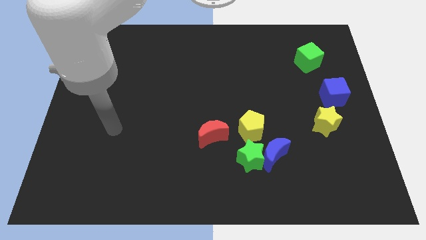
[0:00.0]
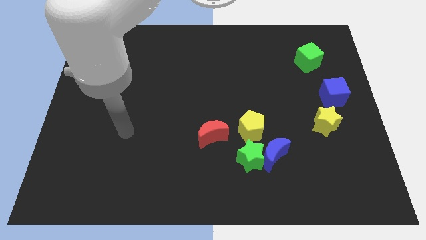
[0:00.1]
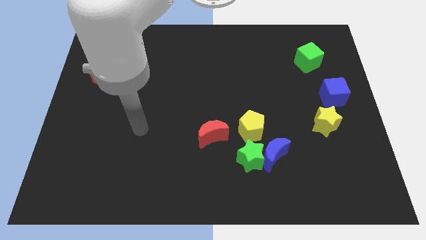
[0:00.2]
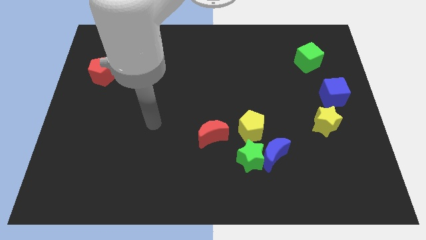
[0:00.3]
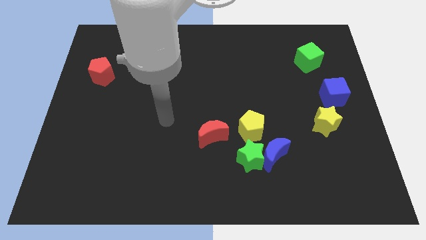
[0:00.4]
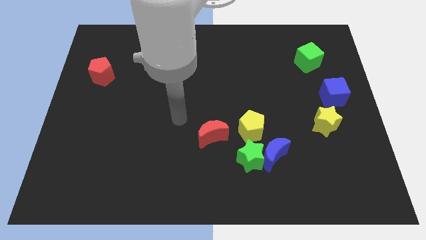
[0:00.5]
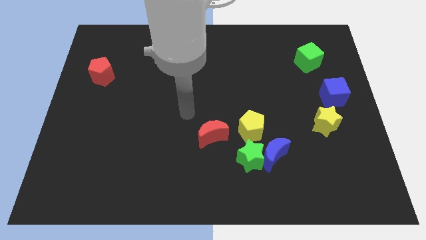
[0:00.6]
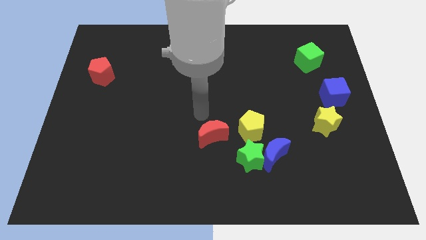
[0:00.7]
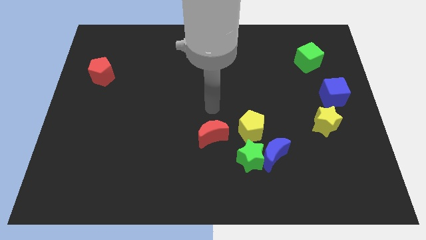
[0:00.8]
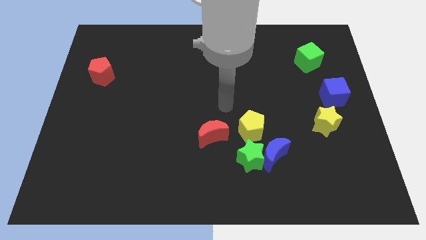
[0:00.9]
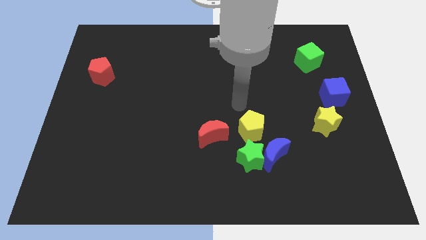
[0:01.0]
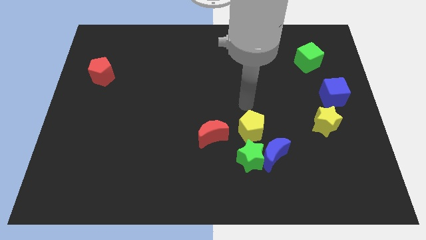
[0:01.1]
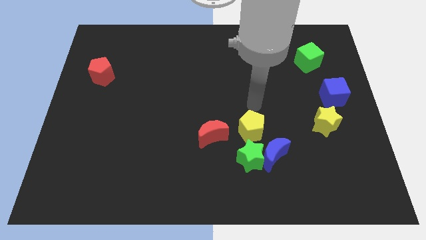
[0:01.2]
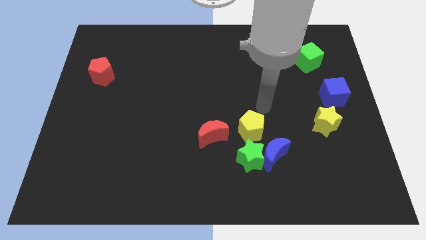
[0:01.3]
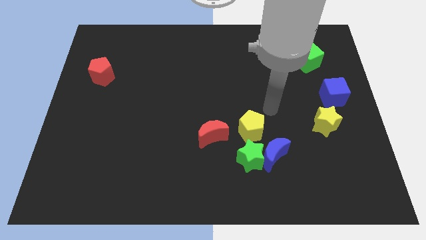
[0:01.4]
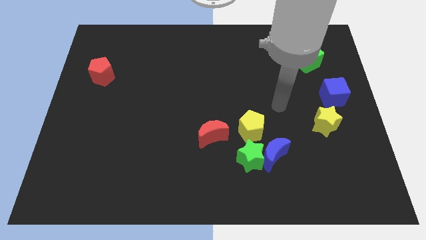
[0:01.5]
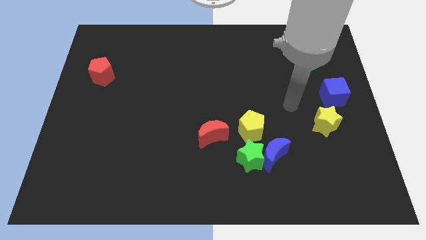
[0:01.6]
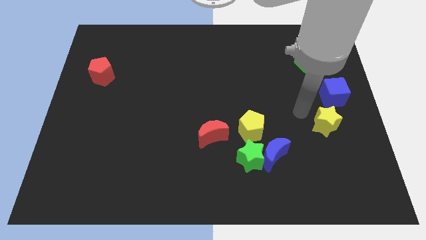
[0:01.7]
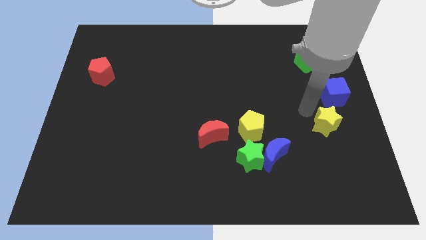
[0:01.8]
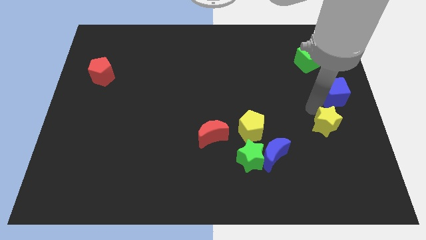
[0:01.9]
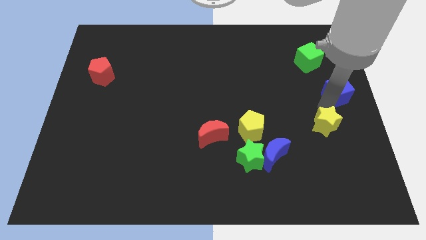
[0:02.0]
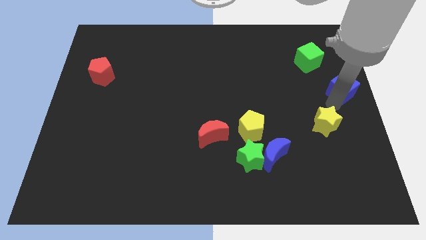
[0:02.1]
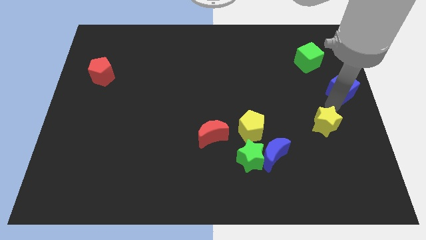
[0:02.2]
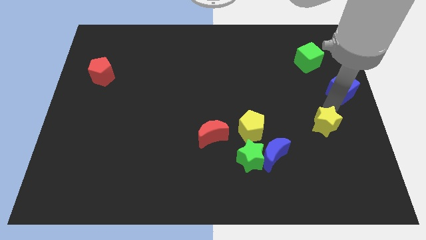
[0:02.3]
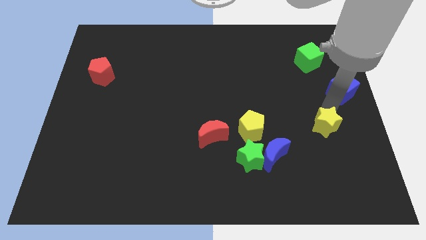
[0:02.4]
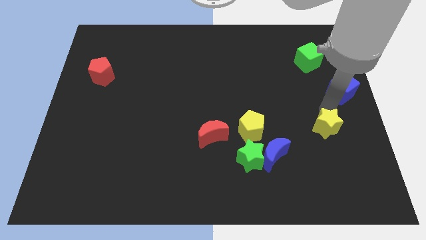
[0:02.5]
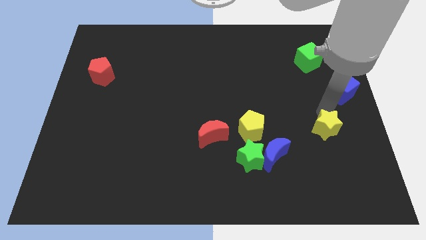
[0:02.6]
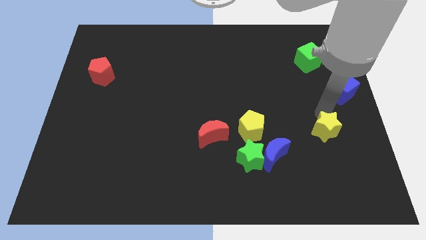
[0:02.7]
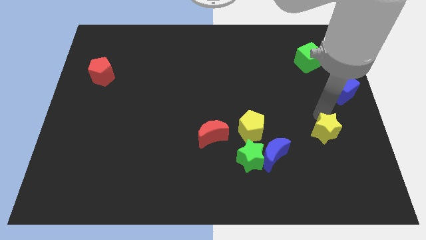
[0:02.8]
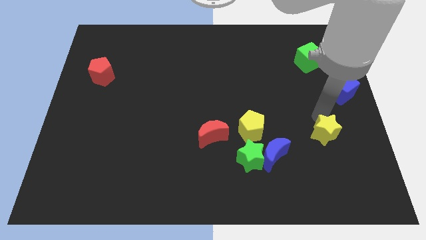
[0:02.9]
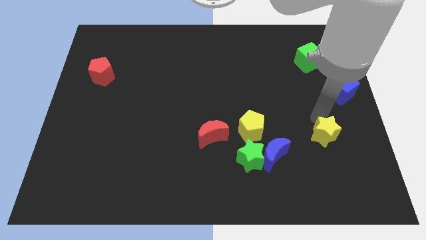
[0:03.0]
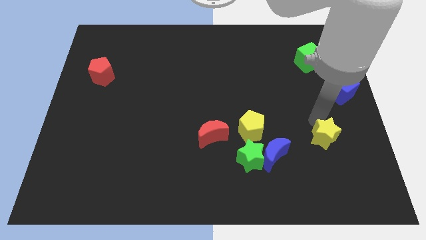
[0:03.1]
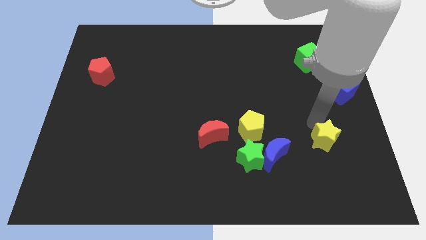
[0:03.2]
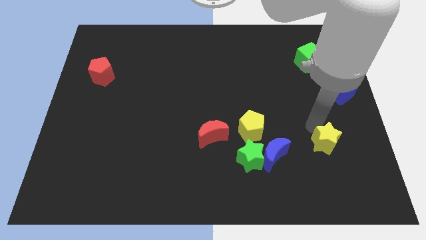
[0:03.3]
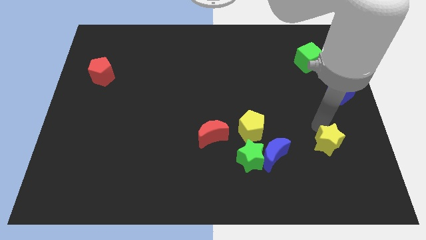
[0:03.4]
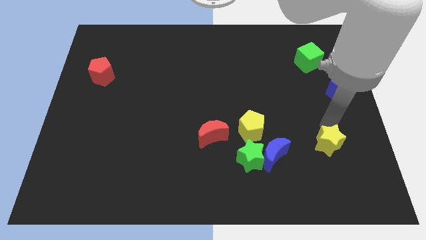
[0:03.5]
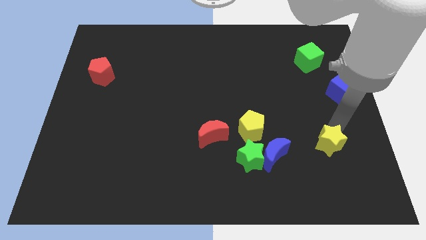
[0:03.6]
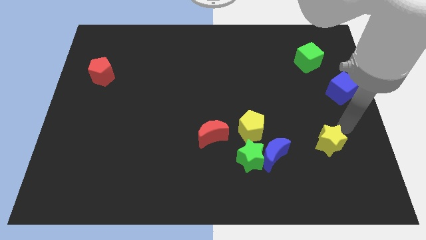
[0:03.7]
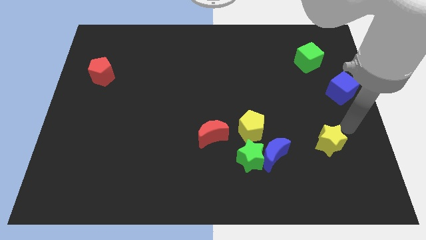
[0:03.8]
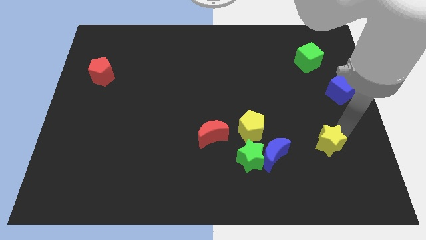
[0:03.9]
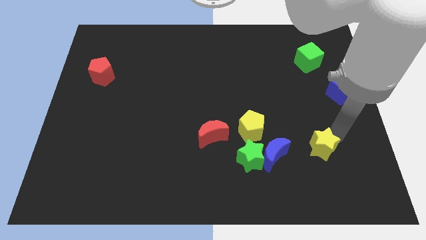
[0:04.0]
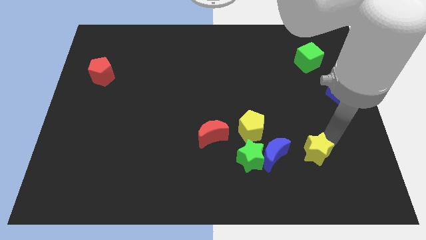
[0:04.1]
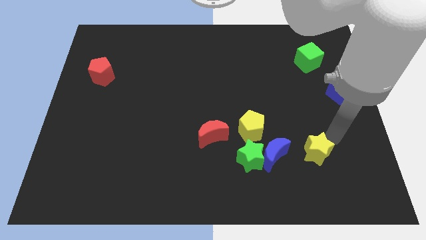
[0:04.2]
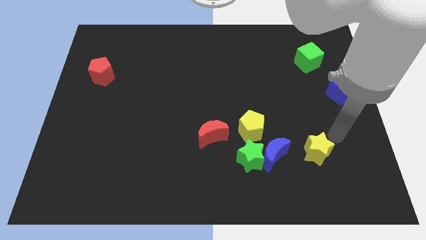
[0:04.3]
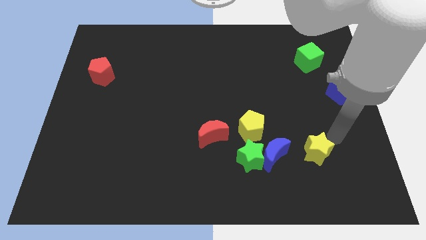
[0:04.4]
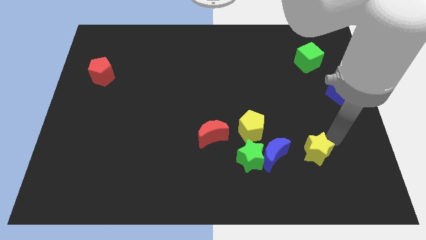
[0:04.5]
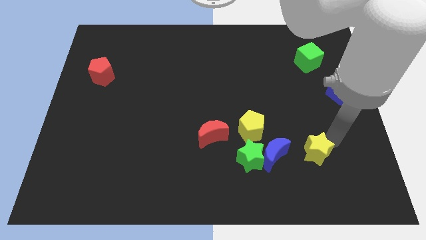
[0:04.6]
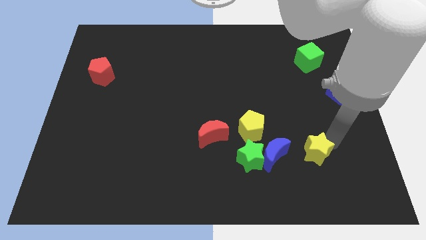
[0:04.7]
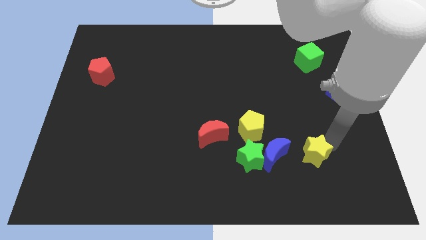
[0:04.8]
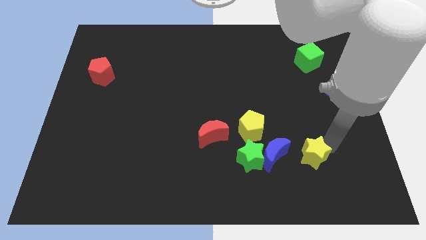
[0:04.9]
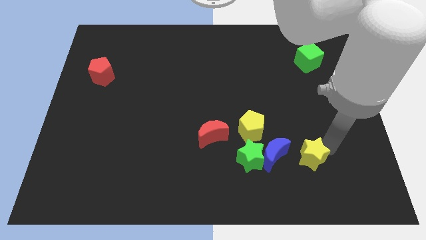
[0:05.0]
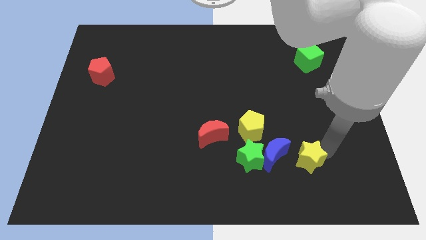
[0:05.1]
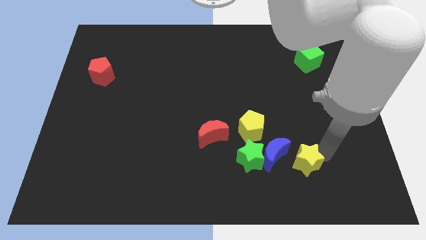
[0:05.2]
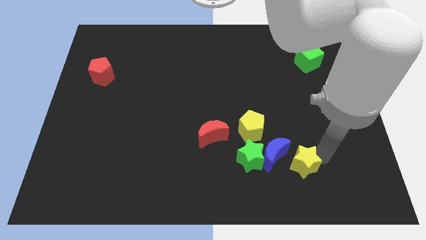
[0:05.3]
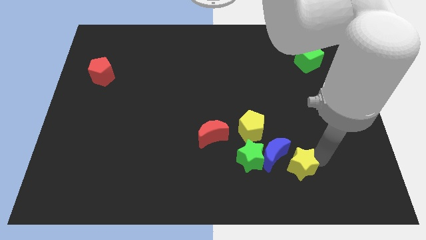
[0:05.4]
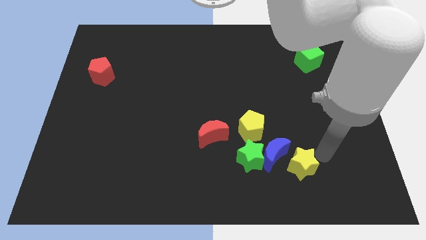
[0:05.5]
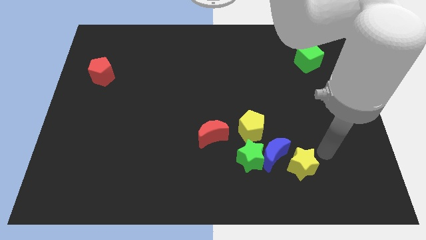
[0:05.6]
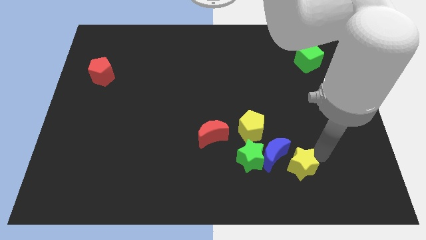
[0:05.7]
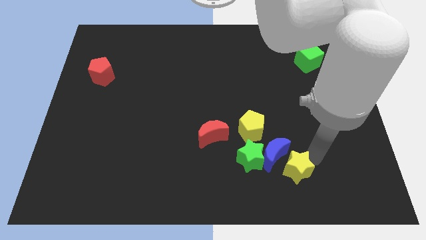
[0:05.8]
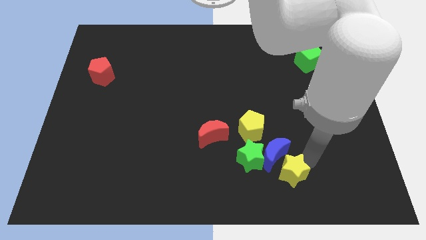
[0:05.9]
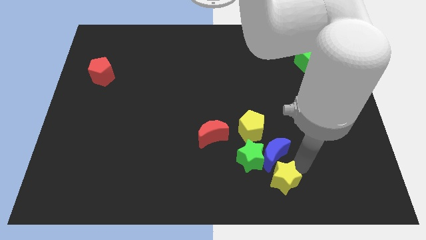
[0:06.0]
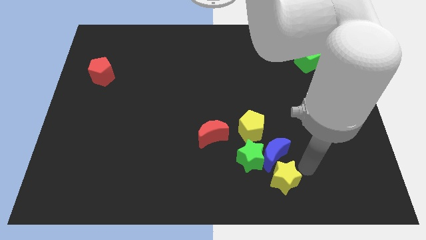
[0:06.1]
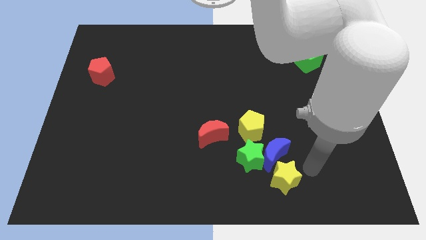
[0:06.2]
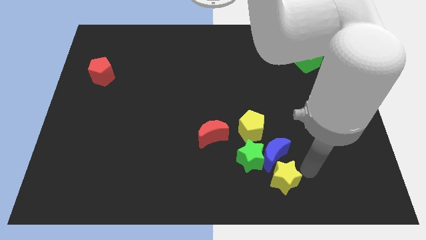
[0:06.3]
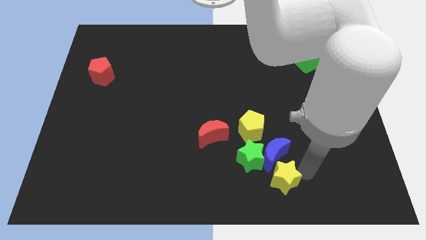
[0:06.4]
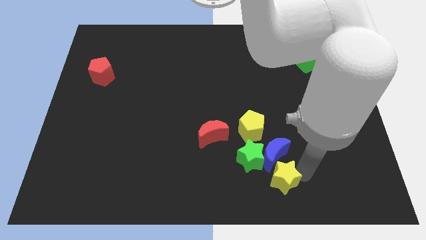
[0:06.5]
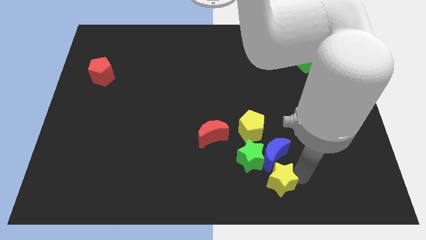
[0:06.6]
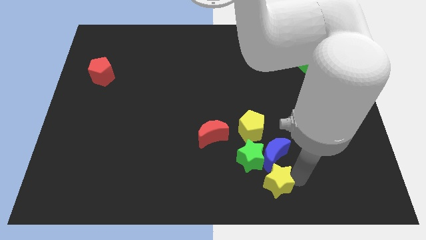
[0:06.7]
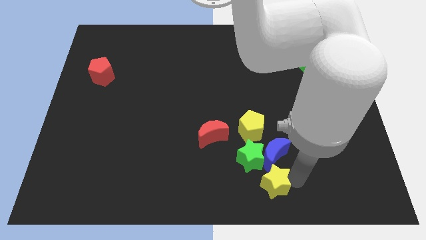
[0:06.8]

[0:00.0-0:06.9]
slide the yellow star to the bottom side

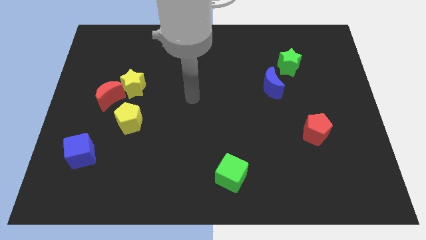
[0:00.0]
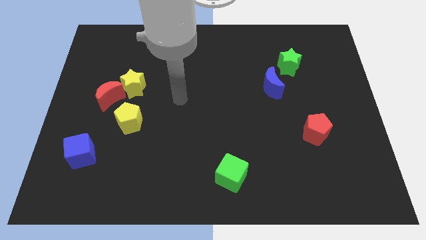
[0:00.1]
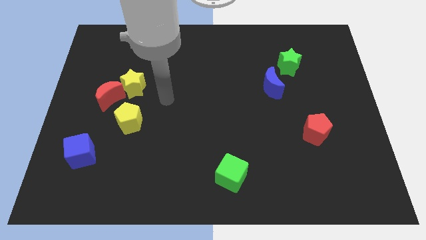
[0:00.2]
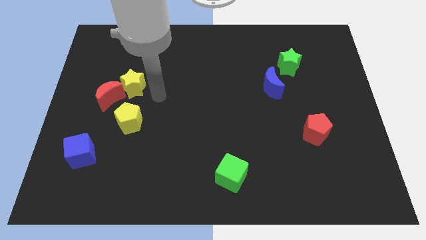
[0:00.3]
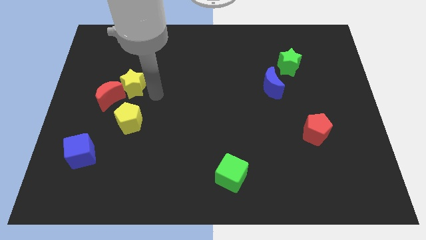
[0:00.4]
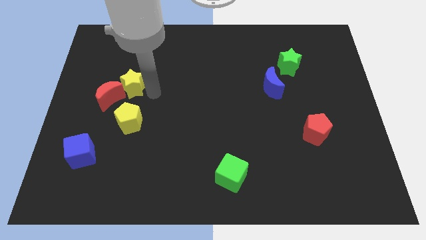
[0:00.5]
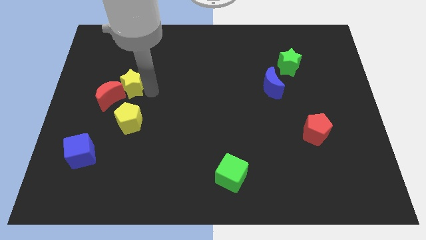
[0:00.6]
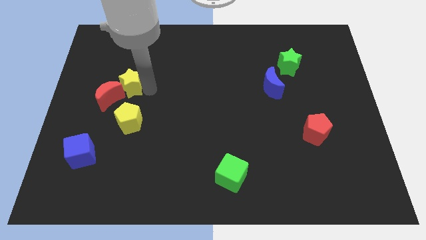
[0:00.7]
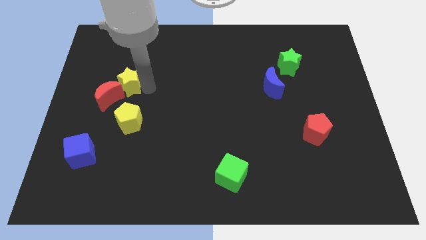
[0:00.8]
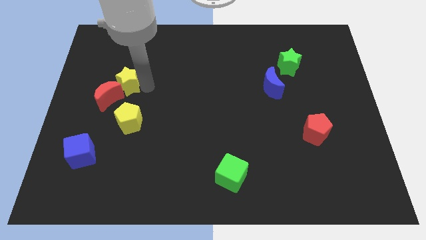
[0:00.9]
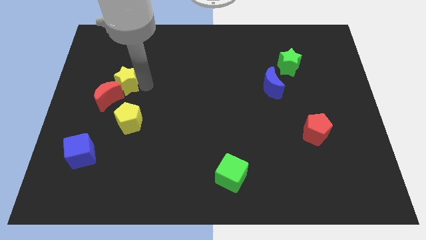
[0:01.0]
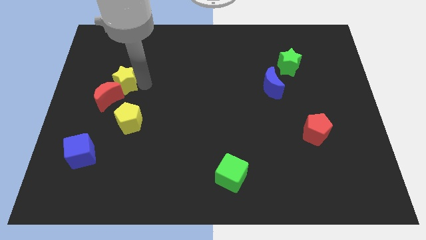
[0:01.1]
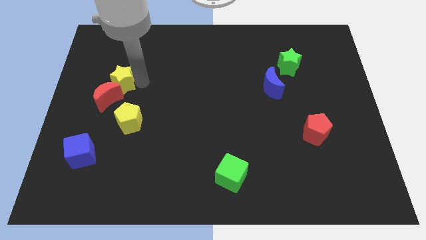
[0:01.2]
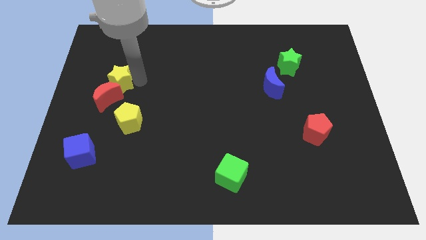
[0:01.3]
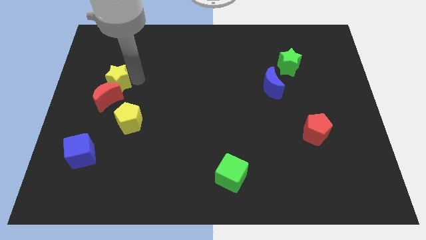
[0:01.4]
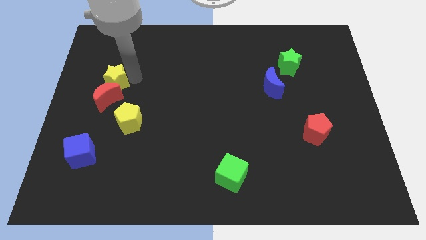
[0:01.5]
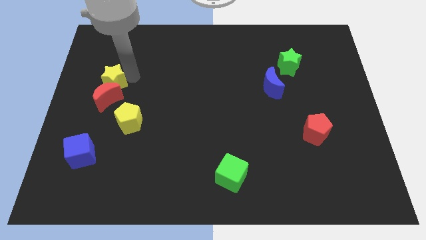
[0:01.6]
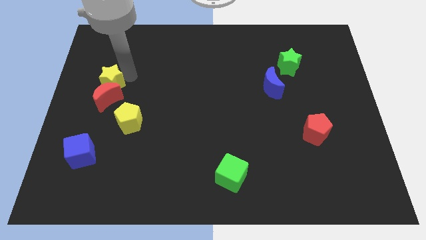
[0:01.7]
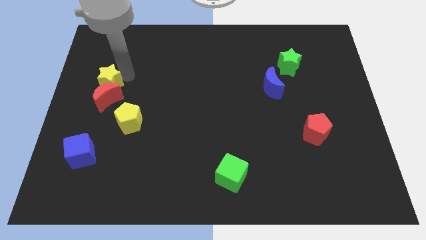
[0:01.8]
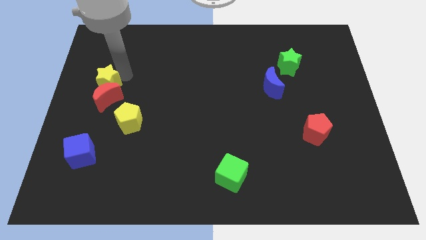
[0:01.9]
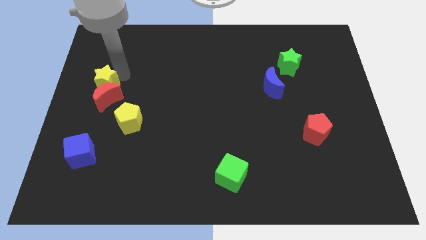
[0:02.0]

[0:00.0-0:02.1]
slide the yellow star to the left side of the board
